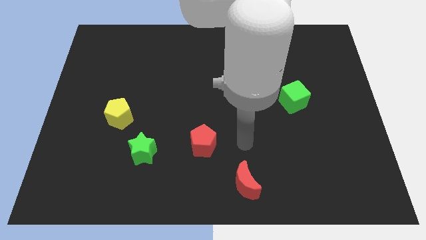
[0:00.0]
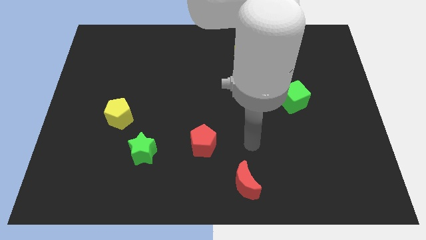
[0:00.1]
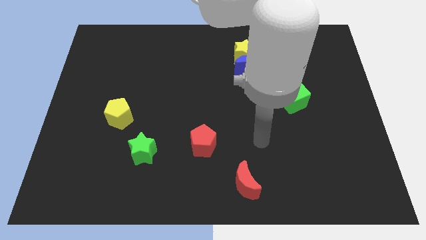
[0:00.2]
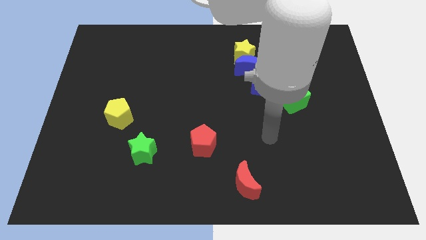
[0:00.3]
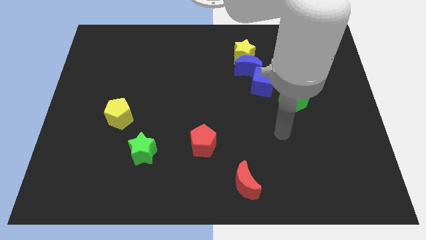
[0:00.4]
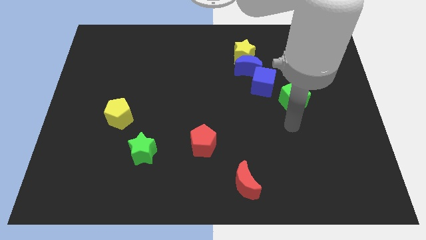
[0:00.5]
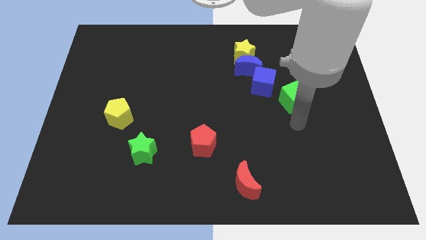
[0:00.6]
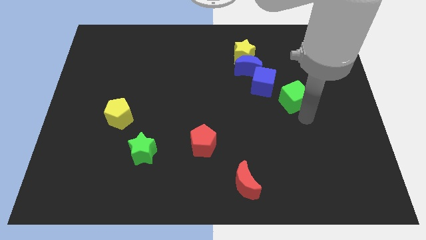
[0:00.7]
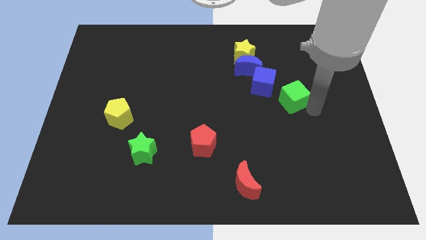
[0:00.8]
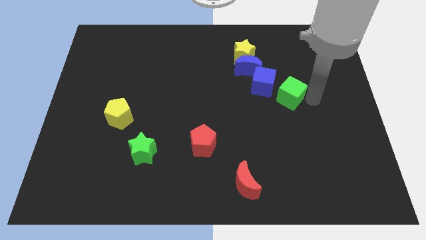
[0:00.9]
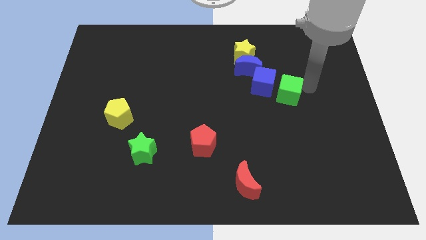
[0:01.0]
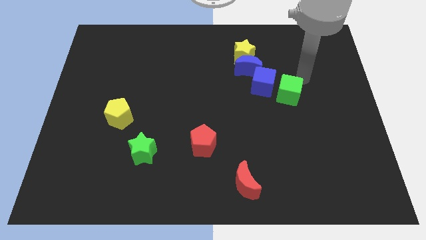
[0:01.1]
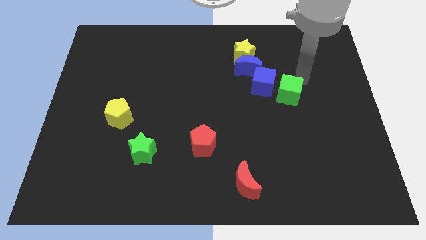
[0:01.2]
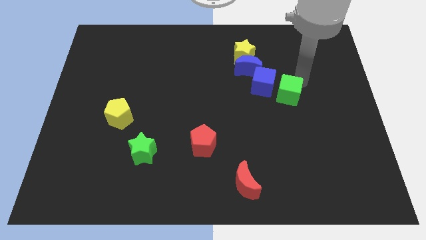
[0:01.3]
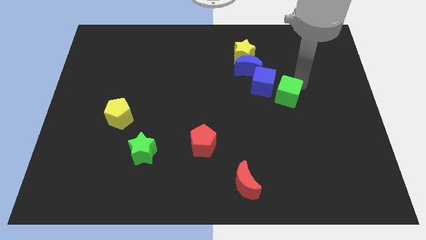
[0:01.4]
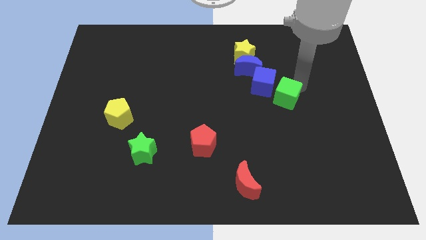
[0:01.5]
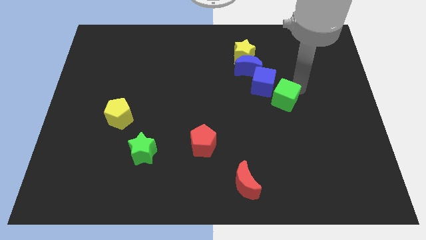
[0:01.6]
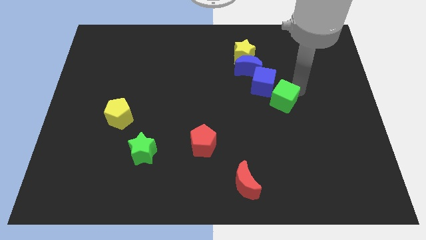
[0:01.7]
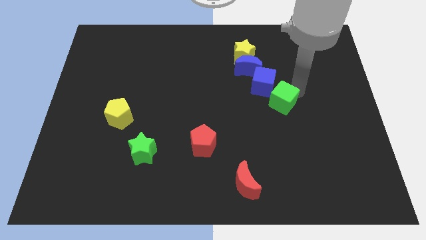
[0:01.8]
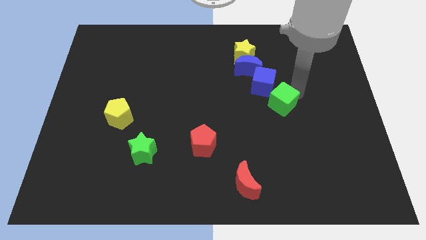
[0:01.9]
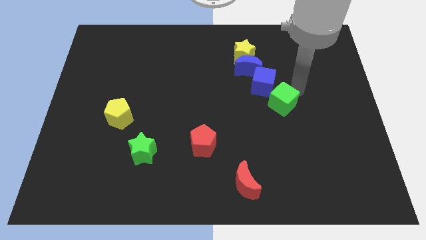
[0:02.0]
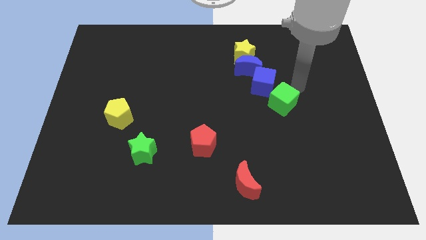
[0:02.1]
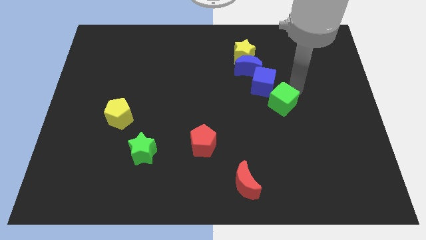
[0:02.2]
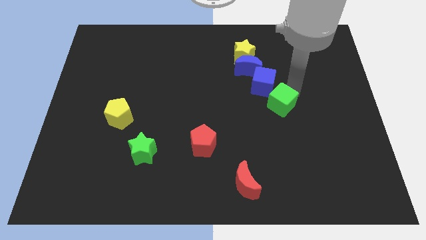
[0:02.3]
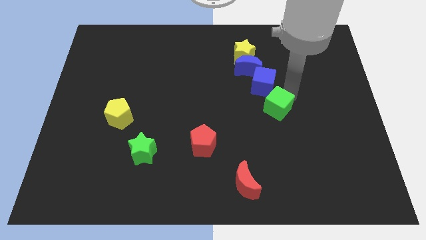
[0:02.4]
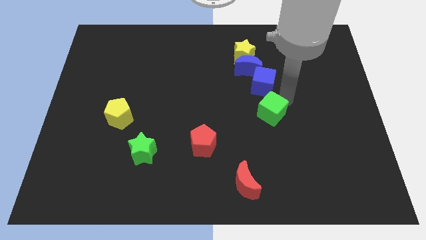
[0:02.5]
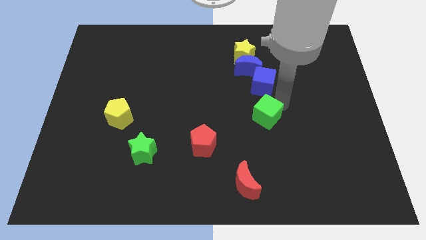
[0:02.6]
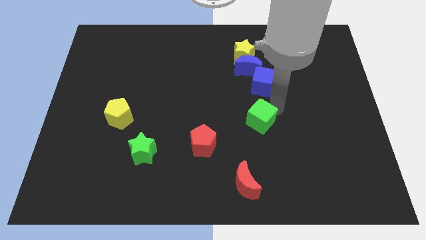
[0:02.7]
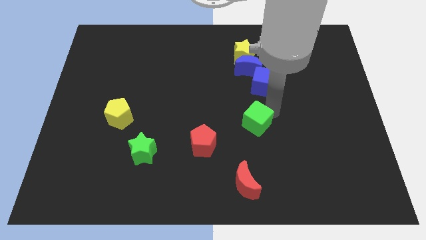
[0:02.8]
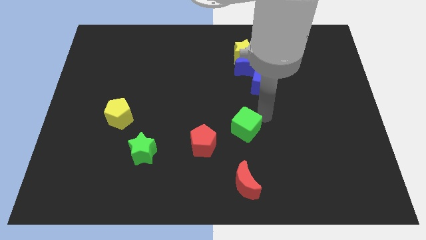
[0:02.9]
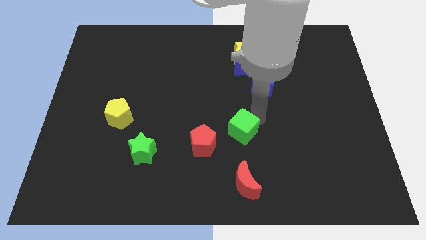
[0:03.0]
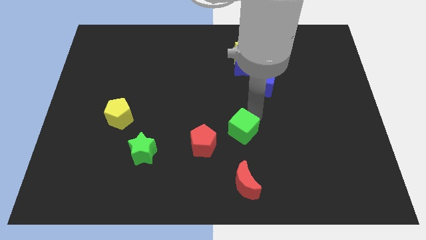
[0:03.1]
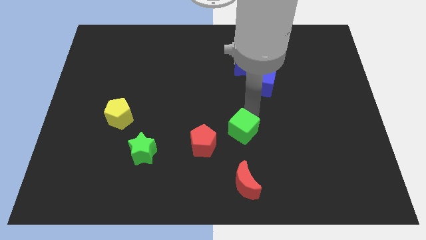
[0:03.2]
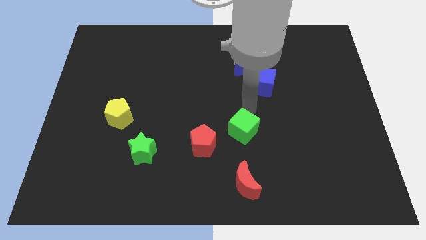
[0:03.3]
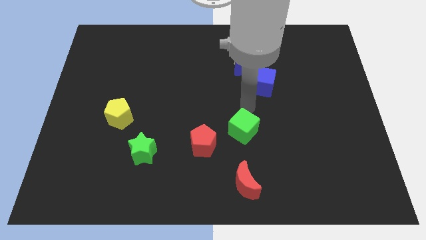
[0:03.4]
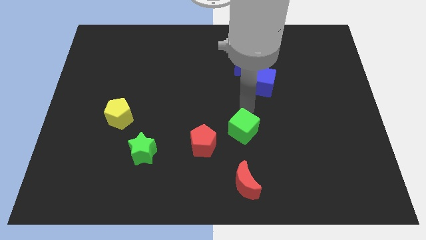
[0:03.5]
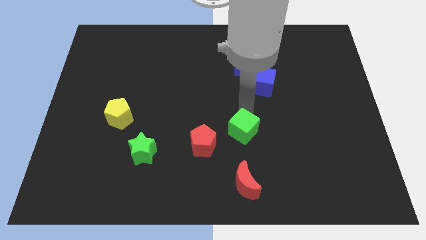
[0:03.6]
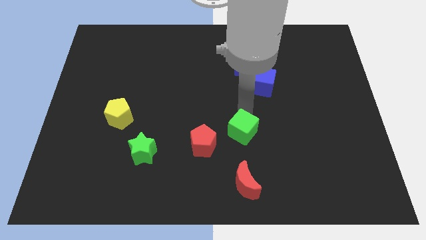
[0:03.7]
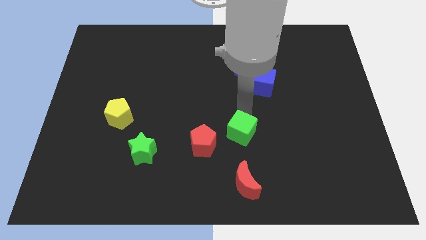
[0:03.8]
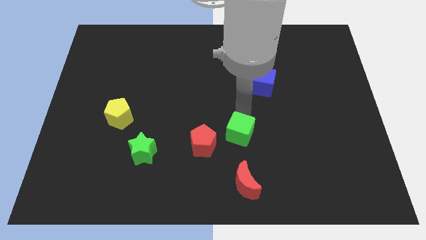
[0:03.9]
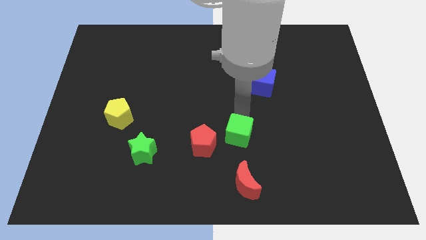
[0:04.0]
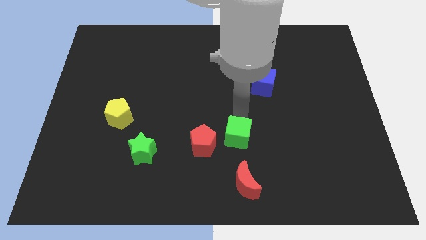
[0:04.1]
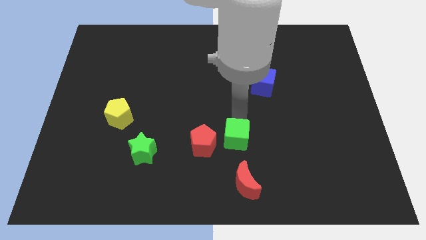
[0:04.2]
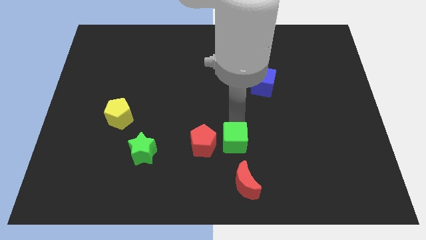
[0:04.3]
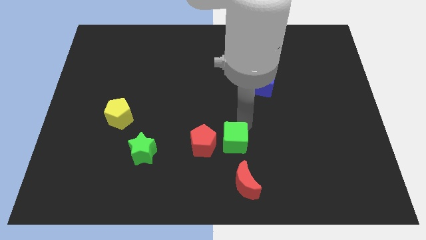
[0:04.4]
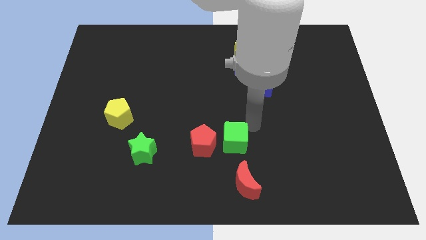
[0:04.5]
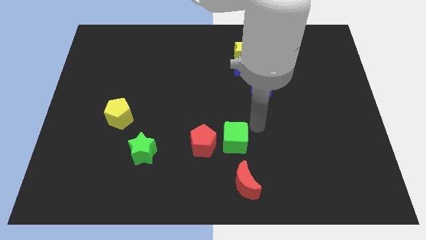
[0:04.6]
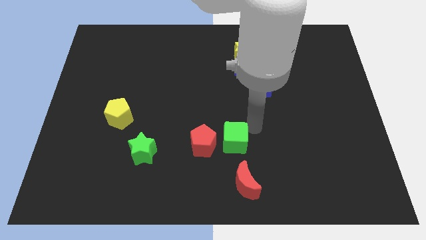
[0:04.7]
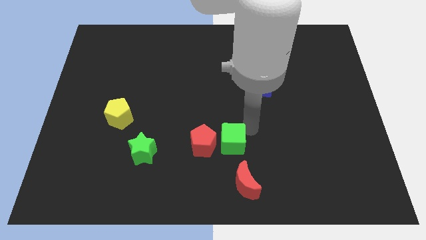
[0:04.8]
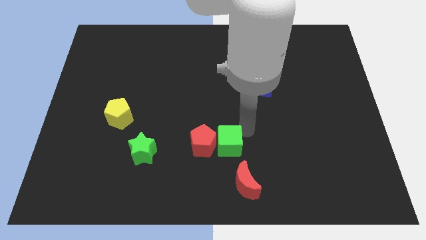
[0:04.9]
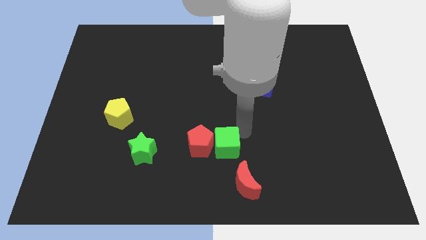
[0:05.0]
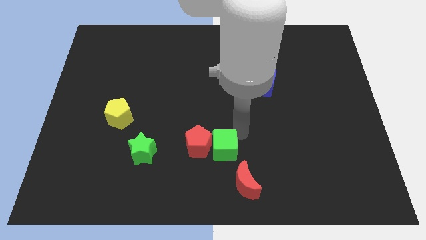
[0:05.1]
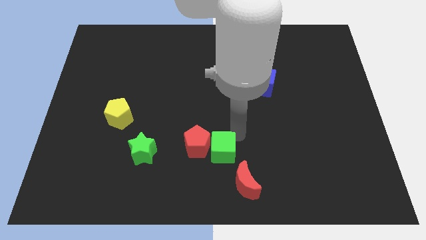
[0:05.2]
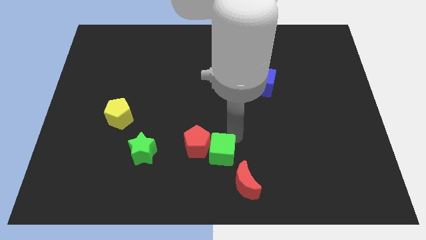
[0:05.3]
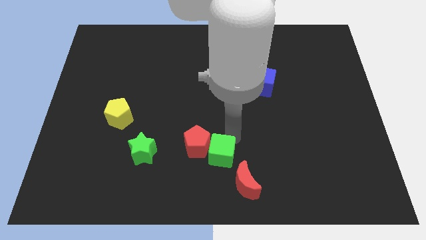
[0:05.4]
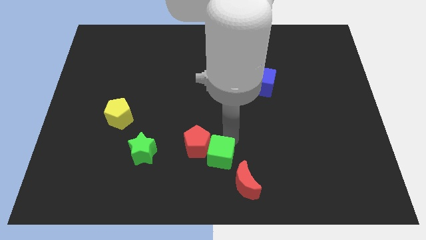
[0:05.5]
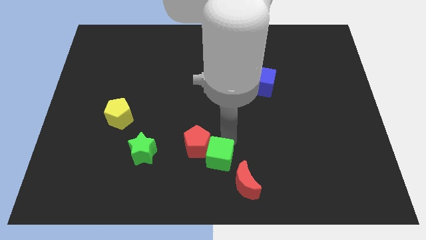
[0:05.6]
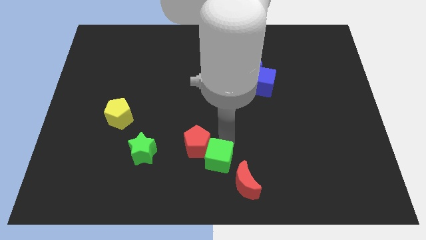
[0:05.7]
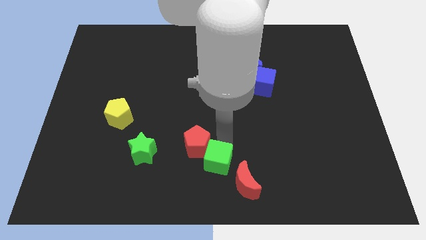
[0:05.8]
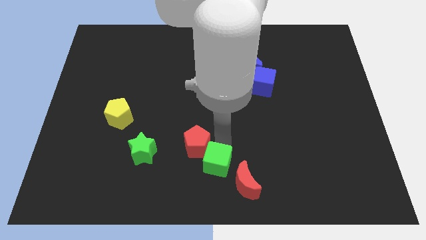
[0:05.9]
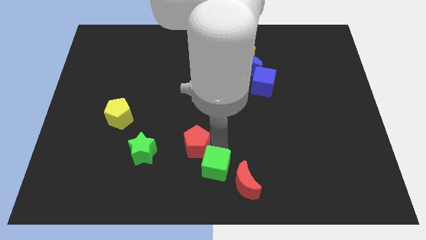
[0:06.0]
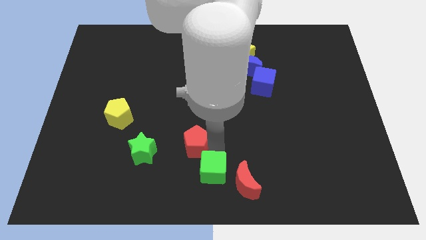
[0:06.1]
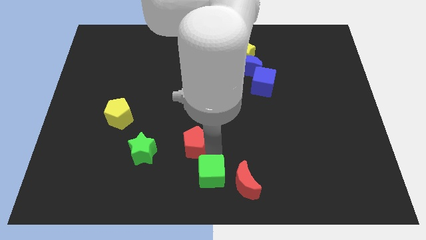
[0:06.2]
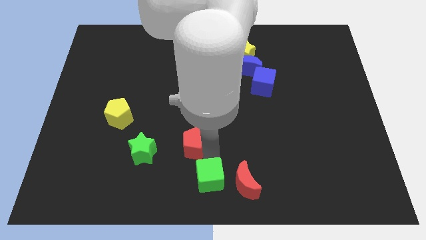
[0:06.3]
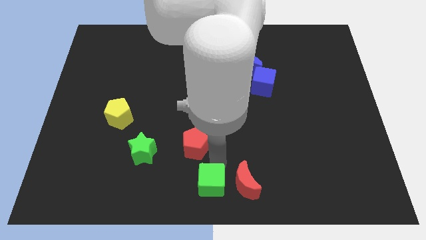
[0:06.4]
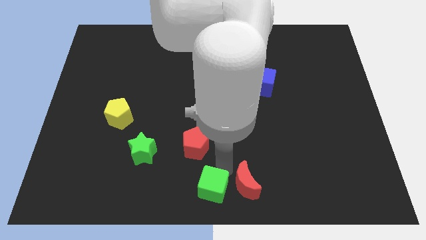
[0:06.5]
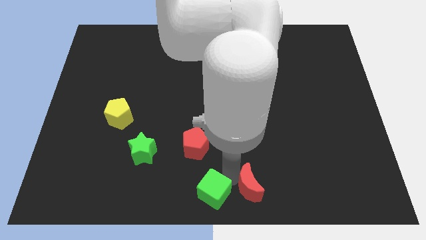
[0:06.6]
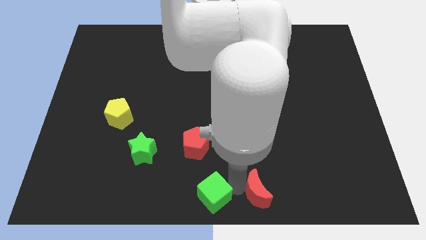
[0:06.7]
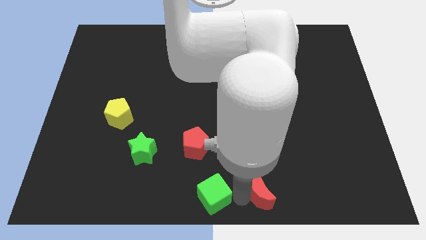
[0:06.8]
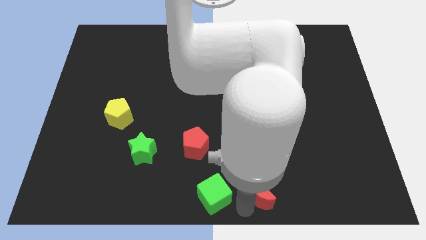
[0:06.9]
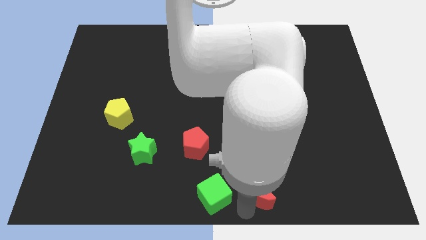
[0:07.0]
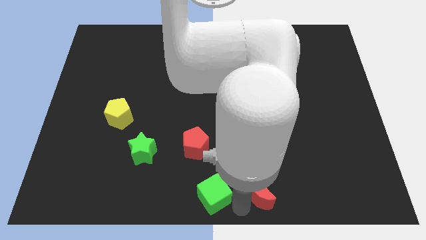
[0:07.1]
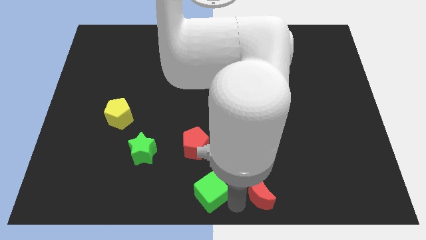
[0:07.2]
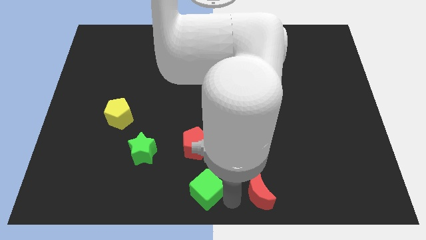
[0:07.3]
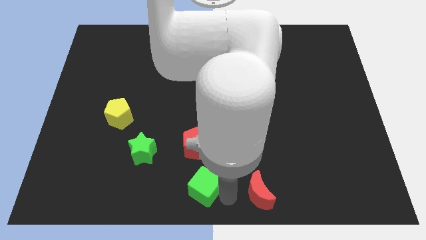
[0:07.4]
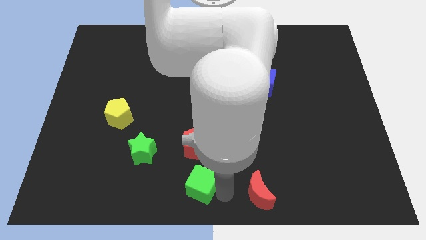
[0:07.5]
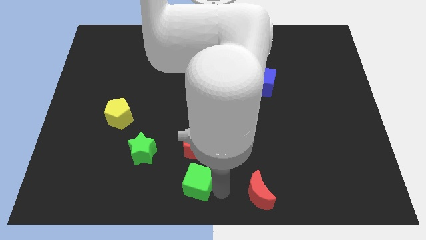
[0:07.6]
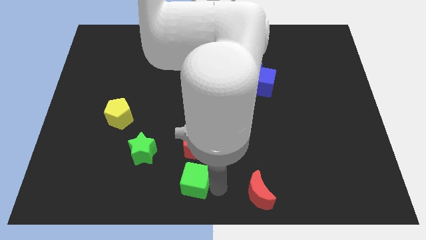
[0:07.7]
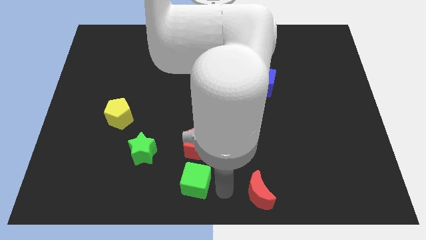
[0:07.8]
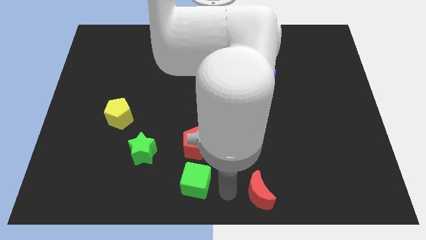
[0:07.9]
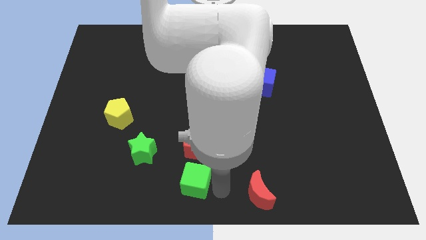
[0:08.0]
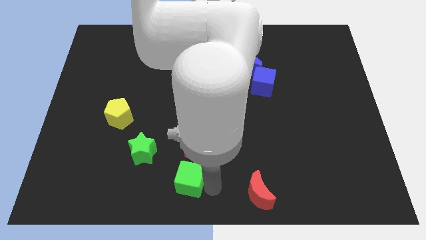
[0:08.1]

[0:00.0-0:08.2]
move the green cube to the bottom right of the green star

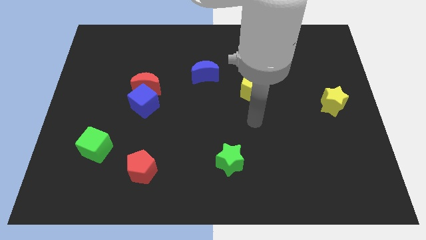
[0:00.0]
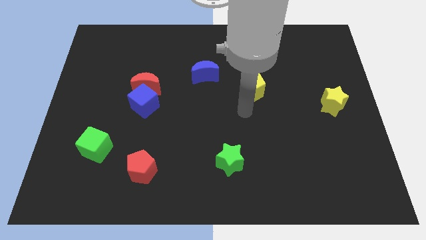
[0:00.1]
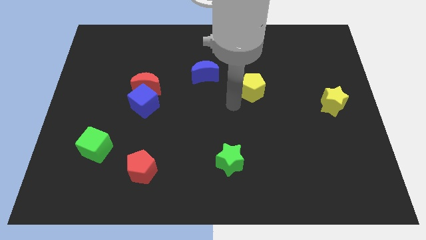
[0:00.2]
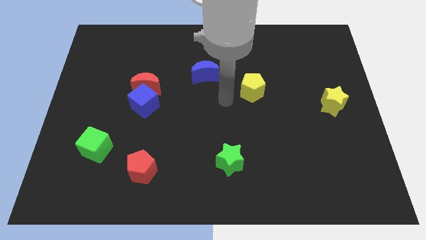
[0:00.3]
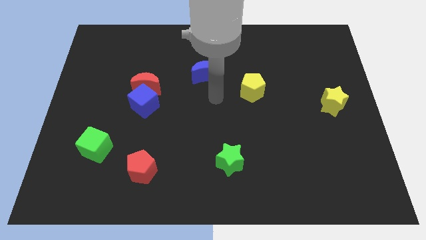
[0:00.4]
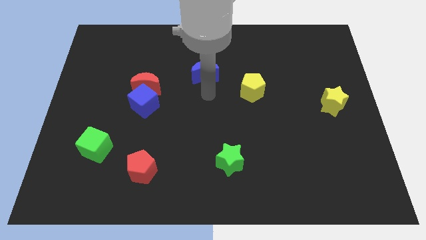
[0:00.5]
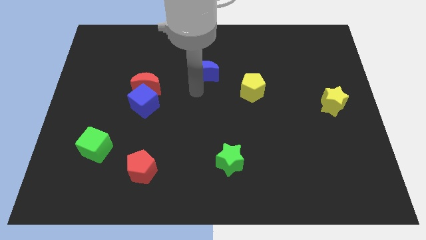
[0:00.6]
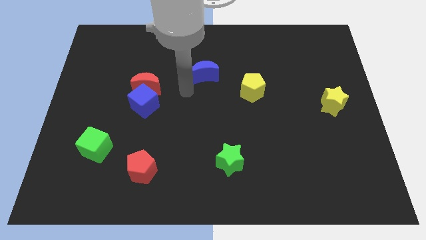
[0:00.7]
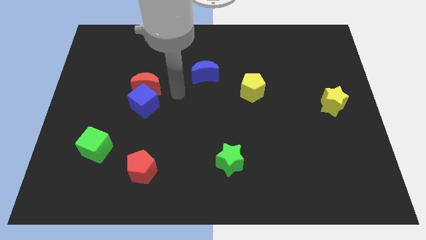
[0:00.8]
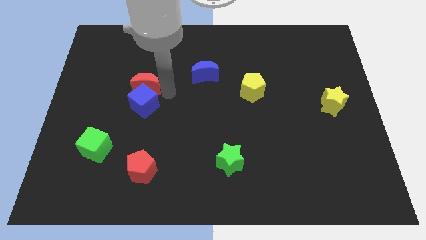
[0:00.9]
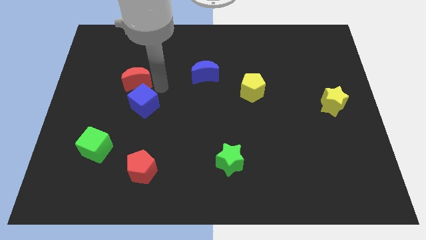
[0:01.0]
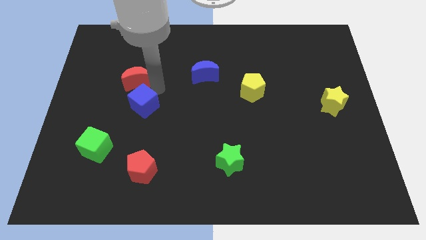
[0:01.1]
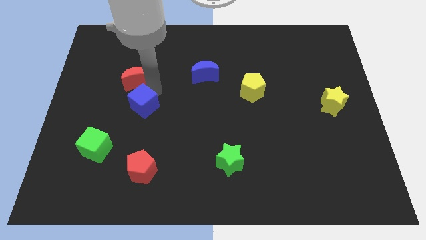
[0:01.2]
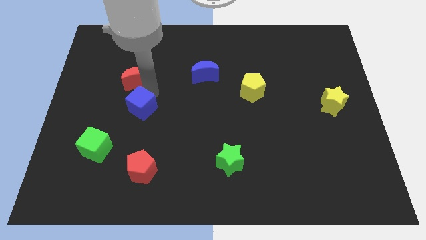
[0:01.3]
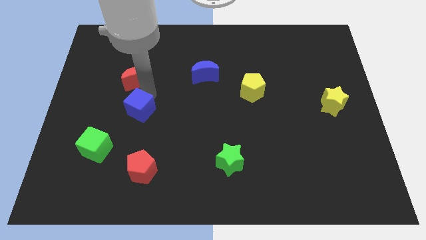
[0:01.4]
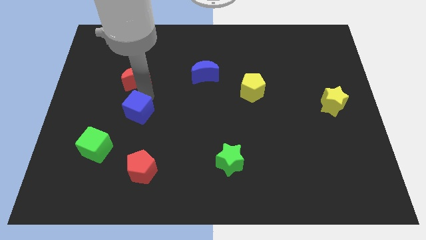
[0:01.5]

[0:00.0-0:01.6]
push the blue cube to the top right of the green cube
